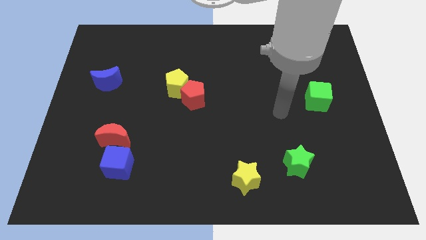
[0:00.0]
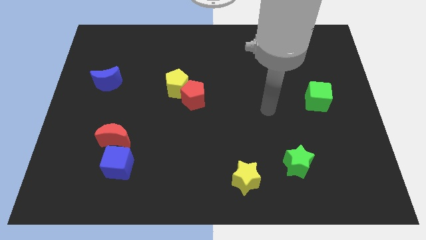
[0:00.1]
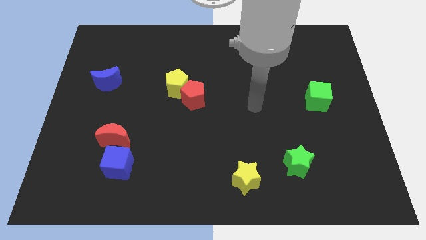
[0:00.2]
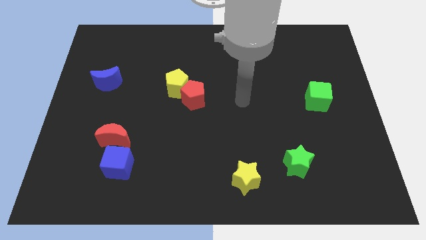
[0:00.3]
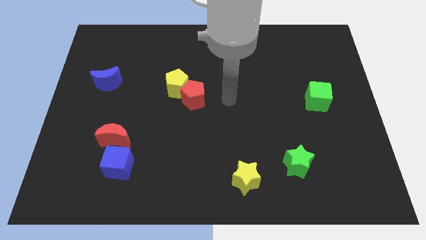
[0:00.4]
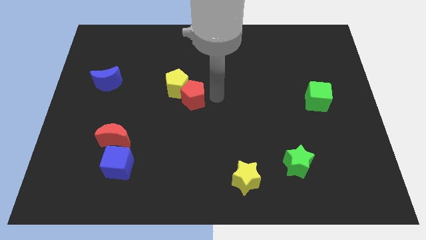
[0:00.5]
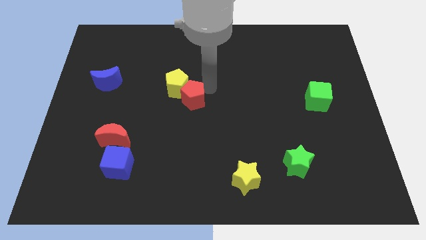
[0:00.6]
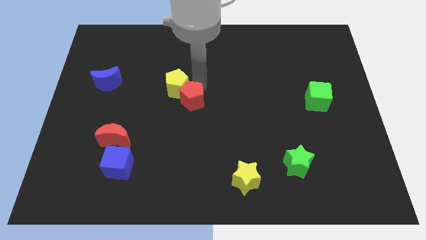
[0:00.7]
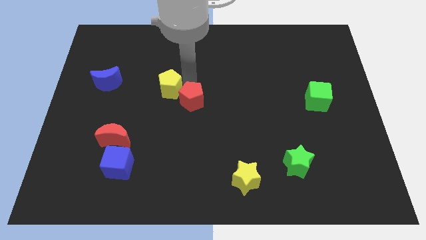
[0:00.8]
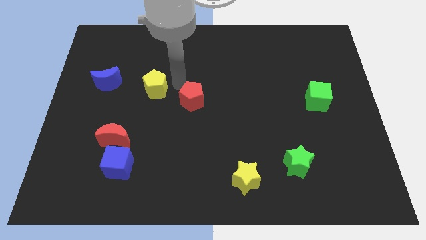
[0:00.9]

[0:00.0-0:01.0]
pull the red pentagon apart from the yellow pentagon

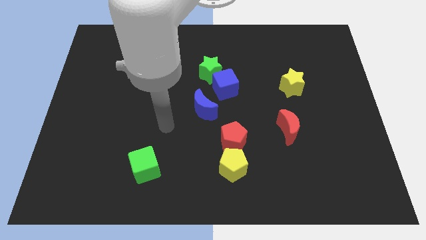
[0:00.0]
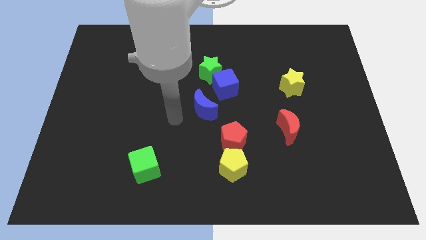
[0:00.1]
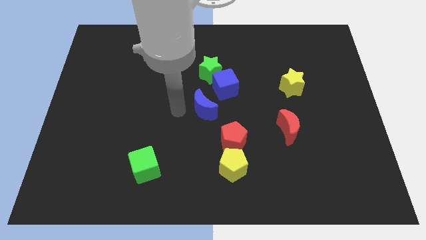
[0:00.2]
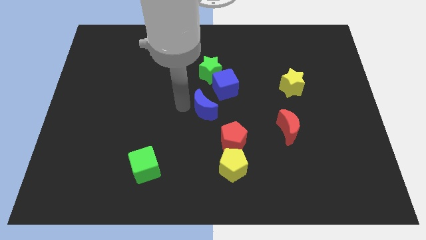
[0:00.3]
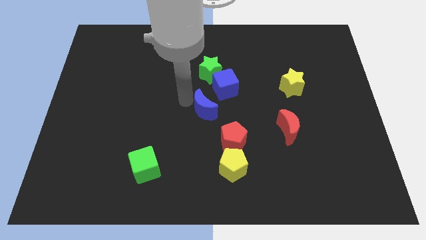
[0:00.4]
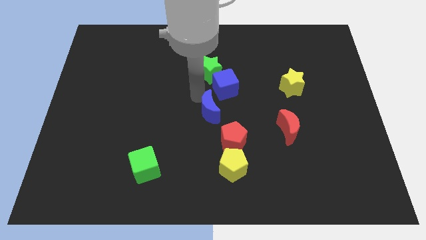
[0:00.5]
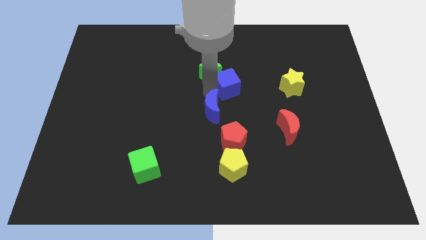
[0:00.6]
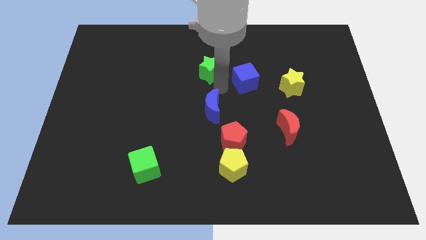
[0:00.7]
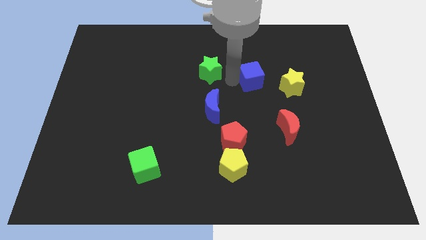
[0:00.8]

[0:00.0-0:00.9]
pull the green star apart from the blue cube

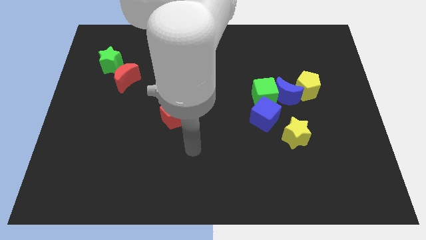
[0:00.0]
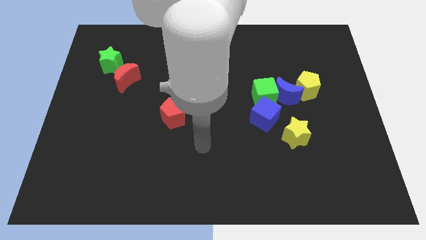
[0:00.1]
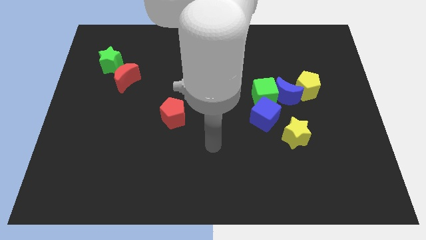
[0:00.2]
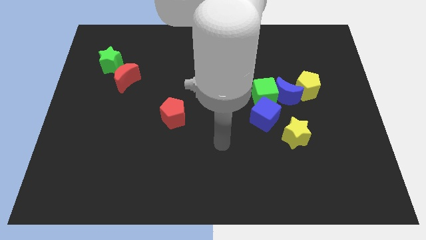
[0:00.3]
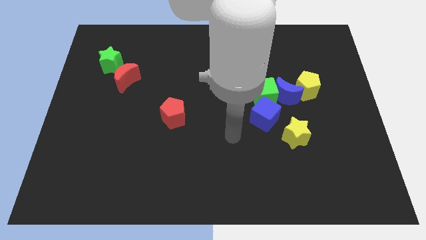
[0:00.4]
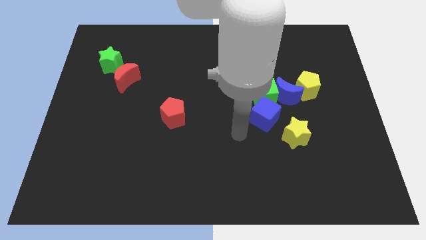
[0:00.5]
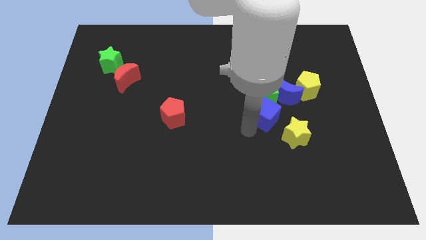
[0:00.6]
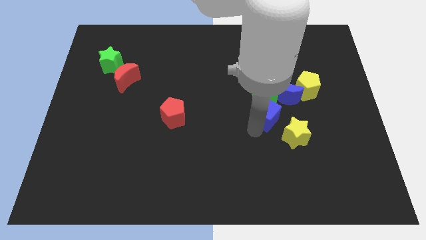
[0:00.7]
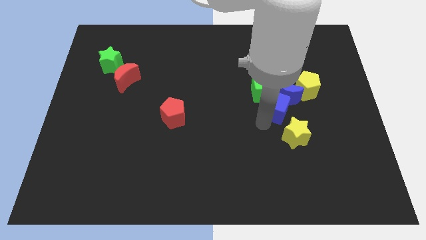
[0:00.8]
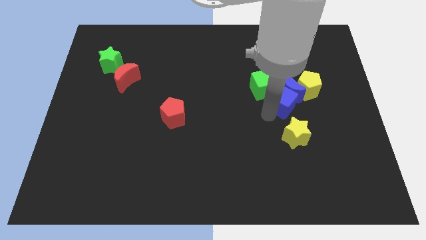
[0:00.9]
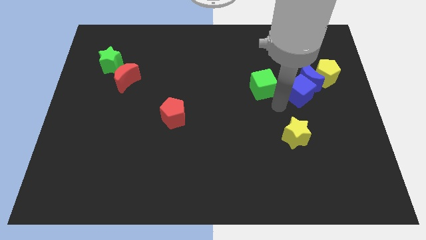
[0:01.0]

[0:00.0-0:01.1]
pull the green cube apart from the blue moon and blue cube

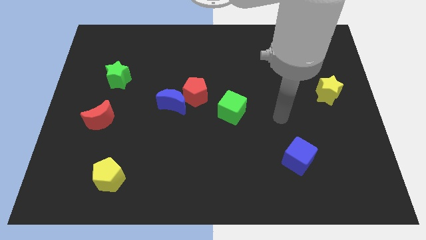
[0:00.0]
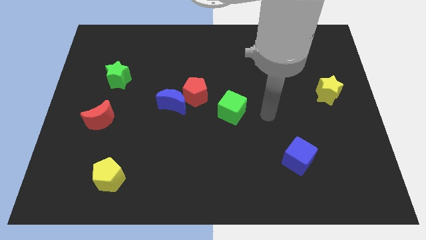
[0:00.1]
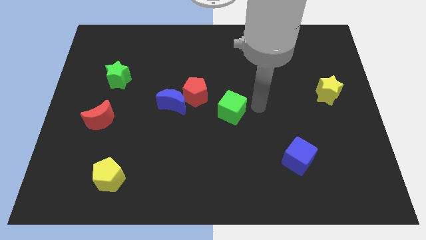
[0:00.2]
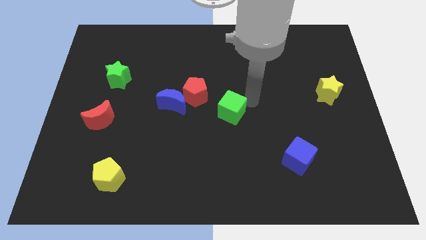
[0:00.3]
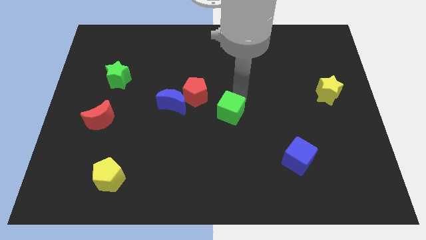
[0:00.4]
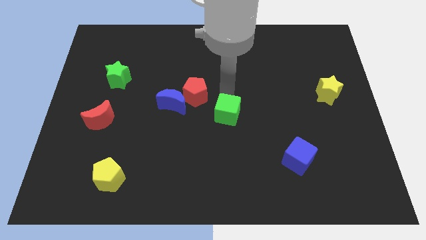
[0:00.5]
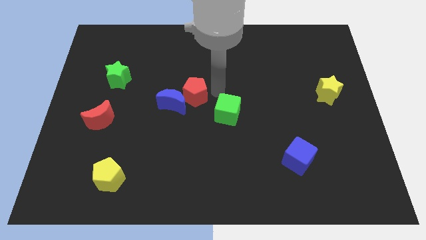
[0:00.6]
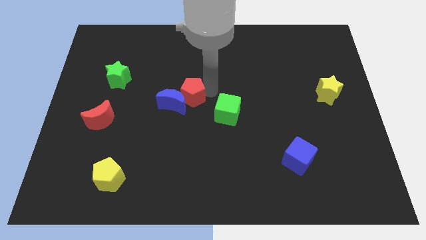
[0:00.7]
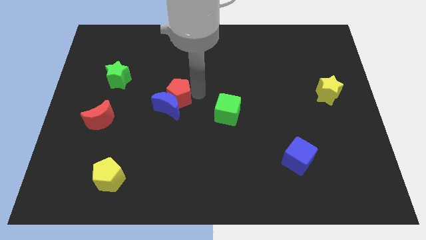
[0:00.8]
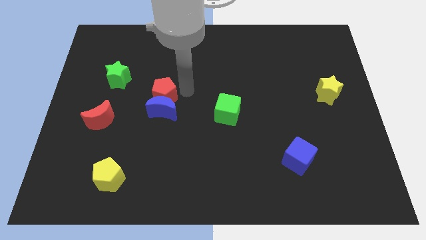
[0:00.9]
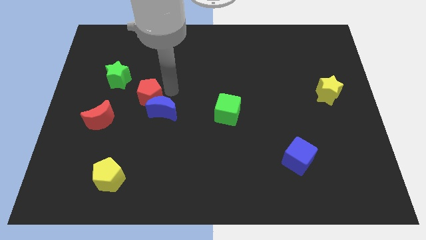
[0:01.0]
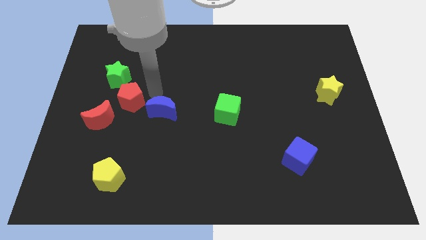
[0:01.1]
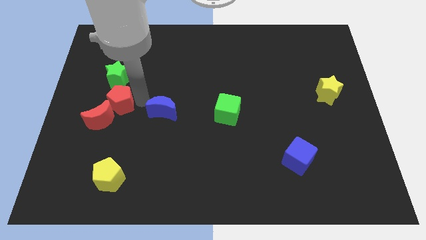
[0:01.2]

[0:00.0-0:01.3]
move the blue moon away from the red pentagon

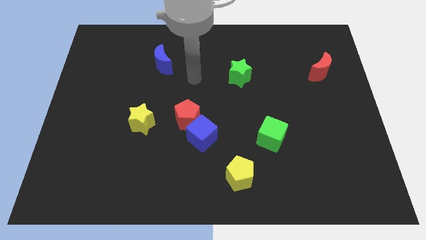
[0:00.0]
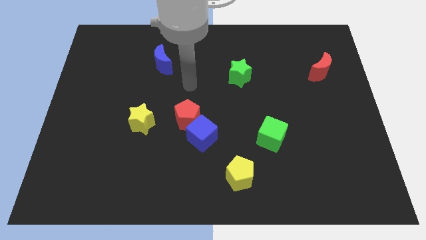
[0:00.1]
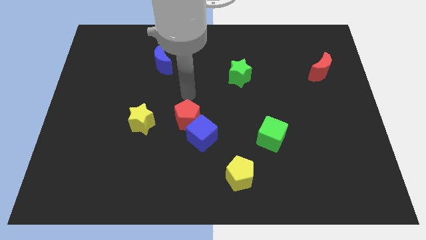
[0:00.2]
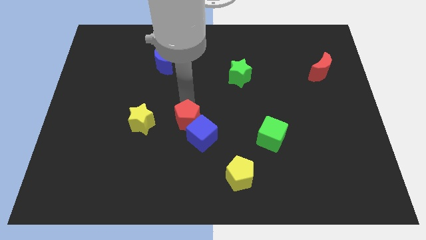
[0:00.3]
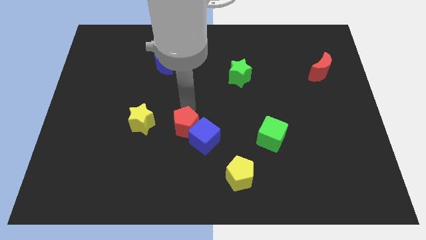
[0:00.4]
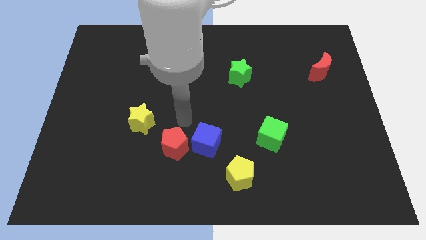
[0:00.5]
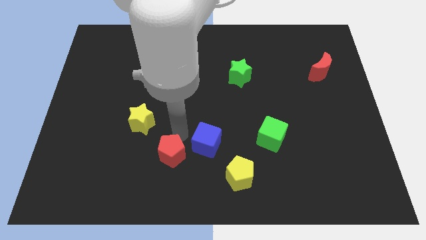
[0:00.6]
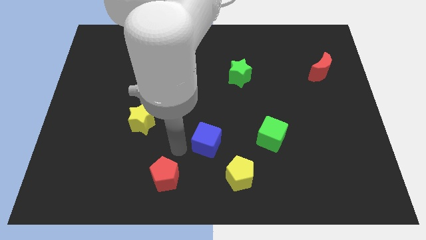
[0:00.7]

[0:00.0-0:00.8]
separate the blue cube from the red pentagon

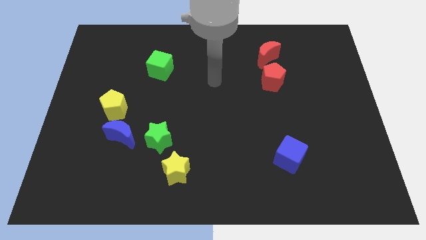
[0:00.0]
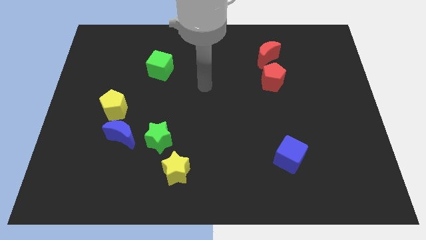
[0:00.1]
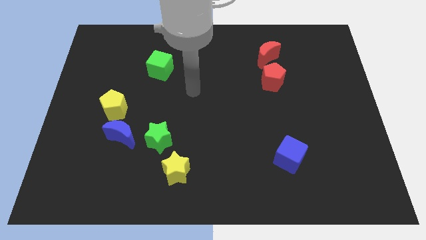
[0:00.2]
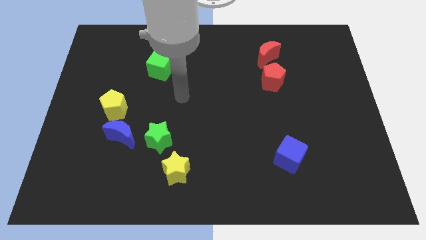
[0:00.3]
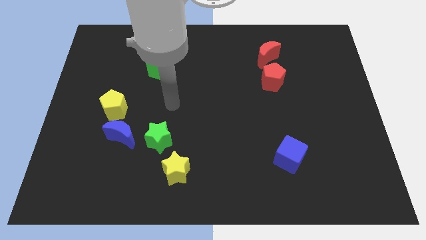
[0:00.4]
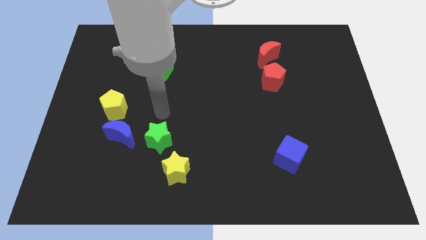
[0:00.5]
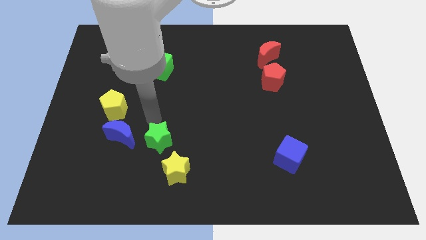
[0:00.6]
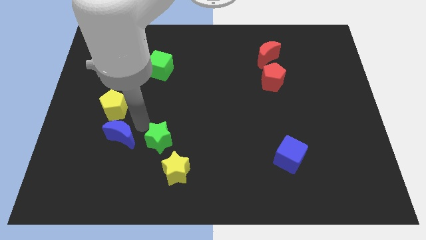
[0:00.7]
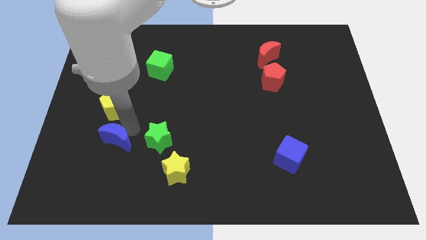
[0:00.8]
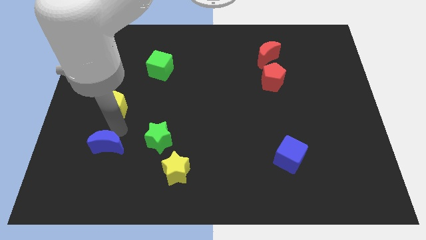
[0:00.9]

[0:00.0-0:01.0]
pull the yellow pentagon apart from the blue moon

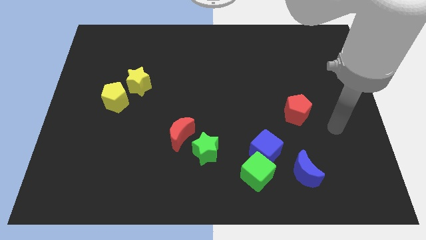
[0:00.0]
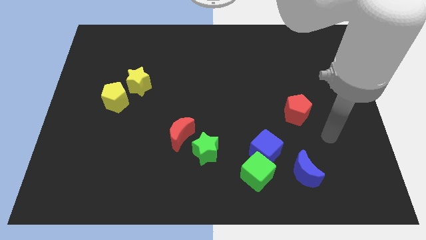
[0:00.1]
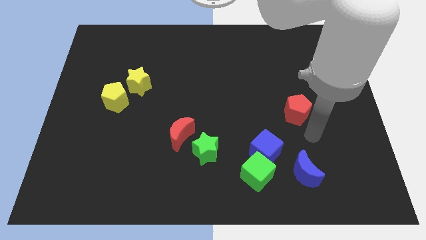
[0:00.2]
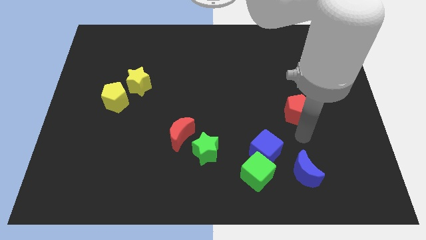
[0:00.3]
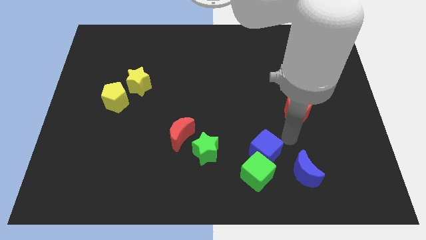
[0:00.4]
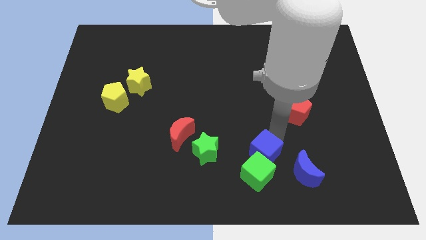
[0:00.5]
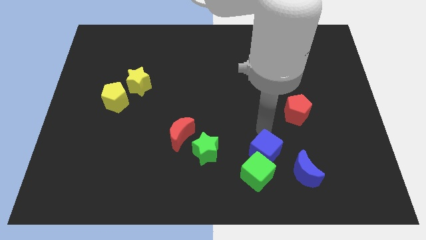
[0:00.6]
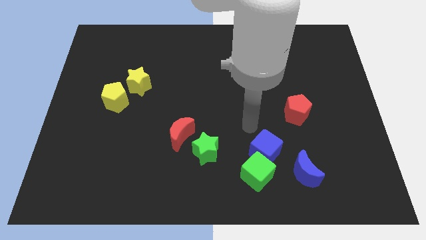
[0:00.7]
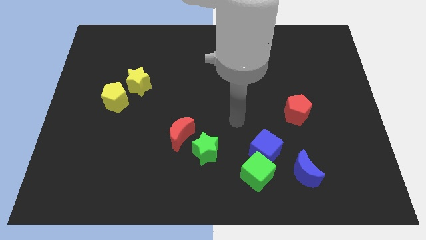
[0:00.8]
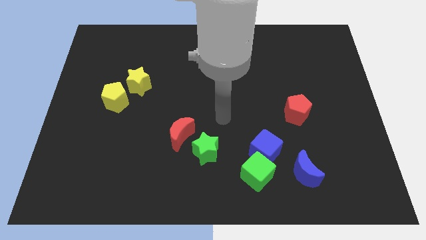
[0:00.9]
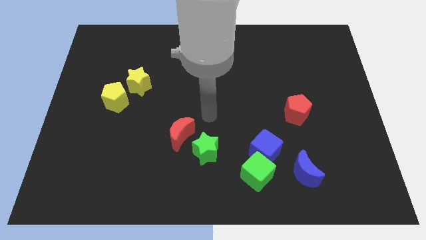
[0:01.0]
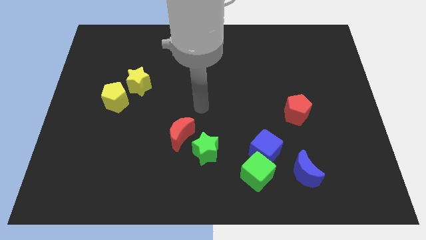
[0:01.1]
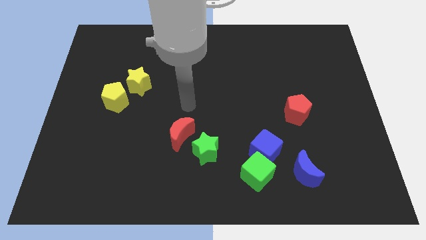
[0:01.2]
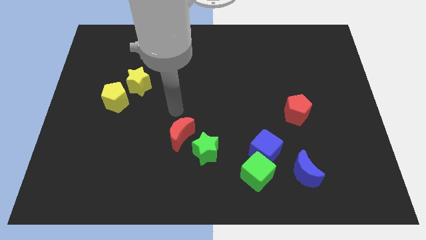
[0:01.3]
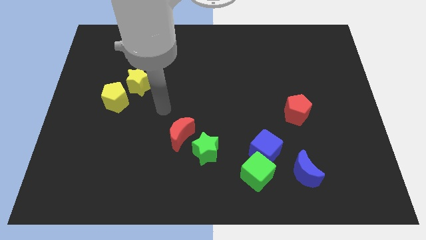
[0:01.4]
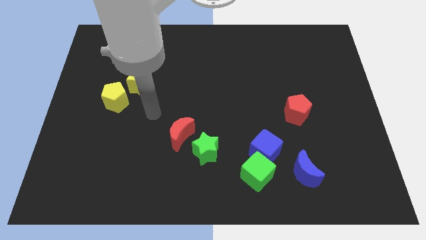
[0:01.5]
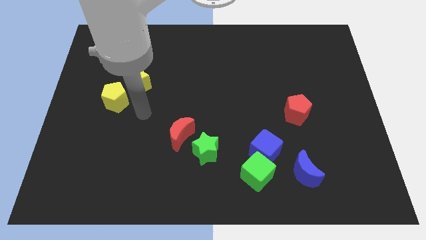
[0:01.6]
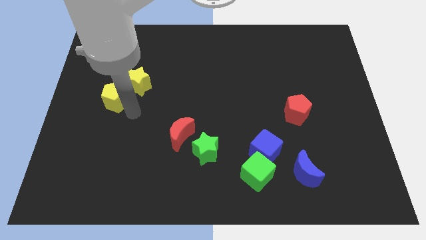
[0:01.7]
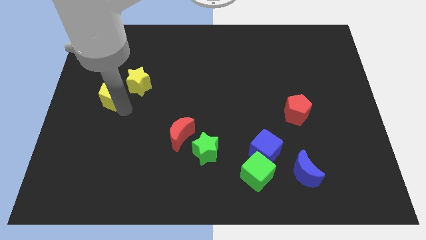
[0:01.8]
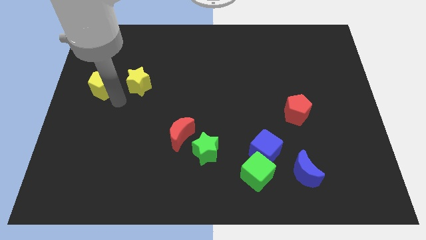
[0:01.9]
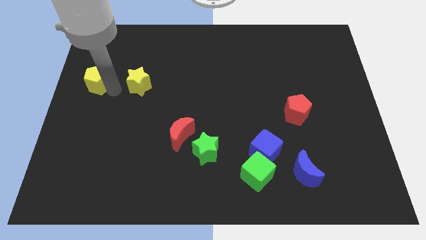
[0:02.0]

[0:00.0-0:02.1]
pull the yellow star apart from the yellow pentagon

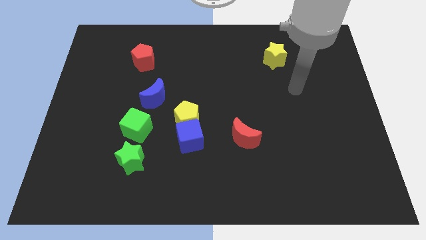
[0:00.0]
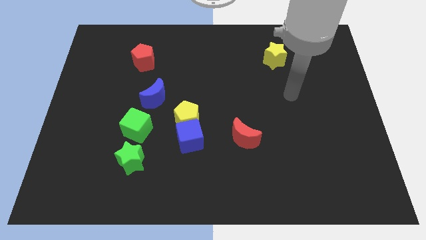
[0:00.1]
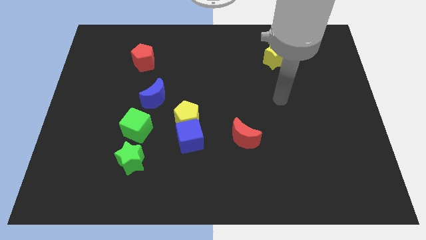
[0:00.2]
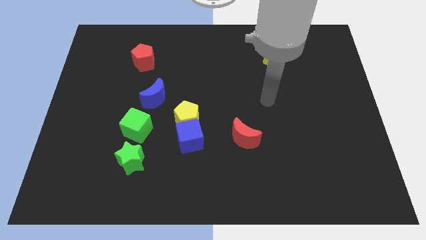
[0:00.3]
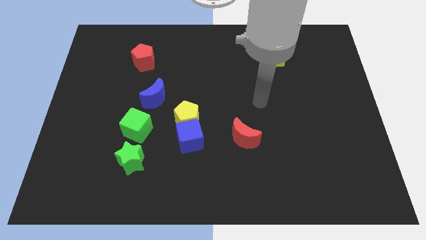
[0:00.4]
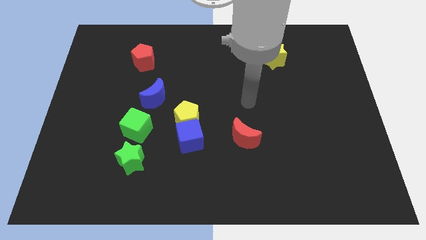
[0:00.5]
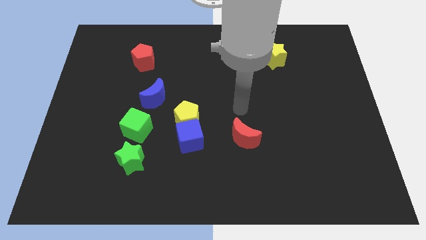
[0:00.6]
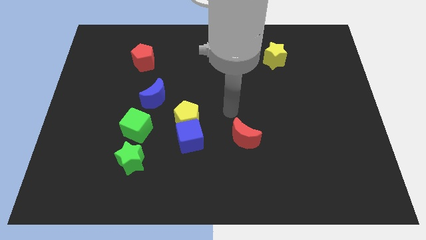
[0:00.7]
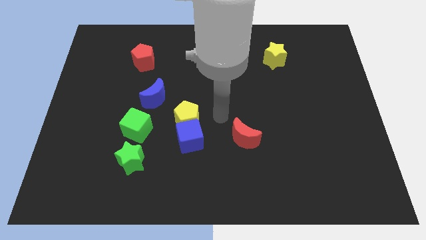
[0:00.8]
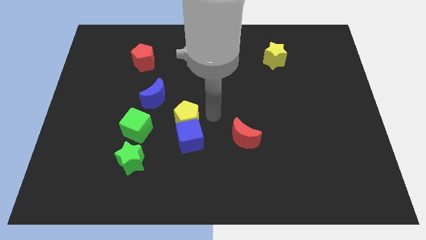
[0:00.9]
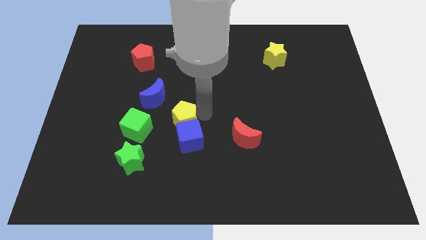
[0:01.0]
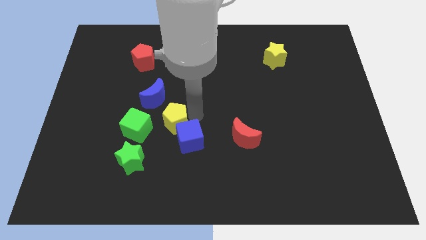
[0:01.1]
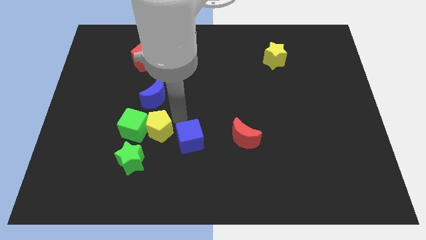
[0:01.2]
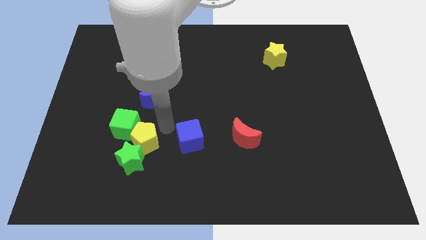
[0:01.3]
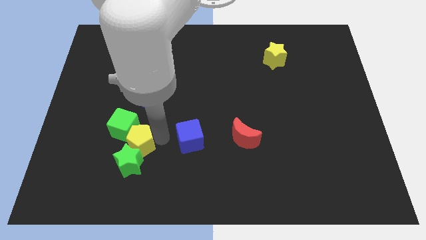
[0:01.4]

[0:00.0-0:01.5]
separate the blue cube from the yellow pentagon
